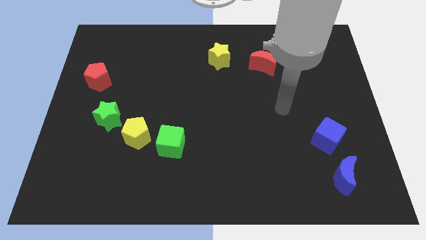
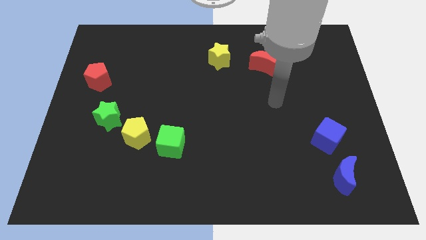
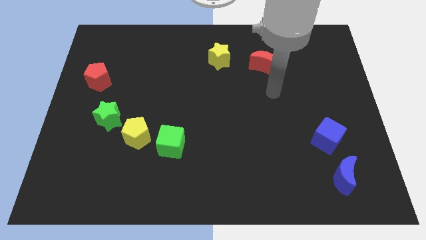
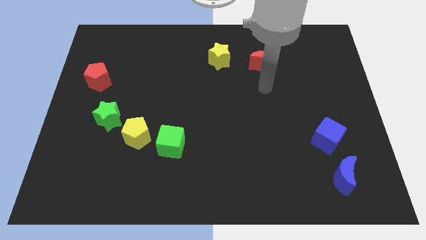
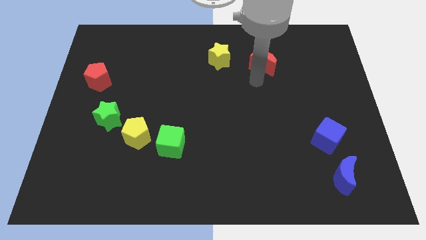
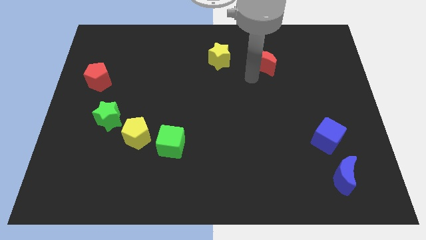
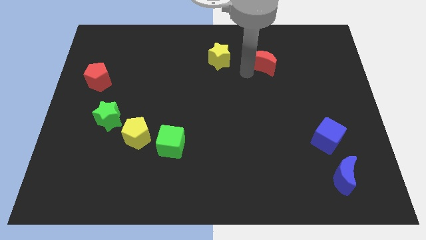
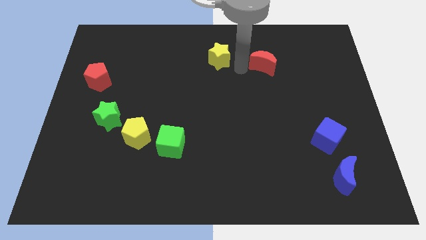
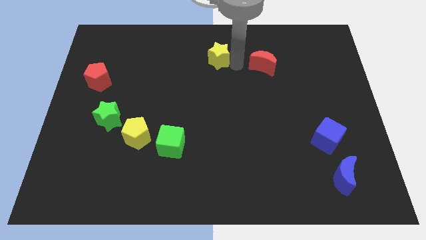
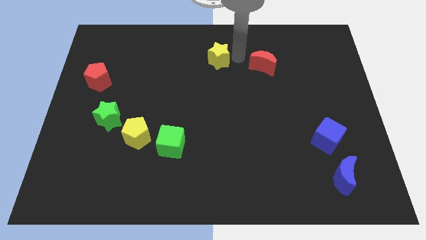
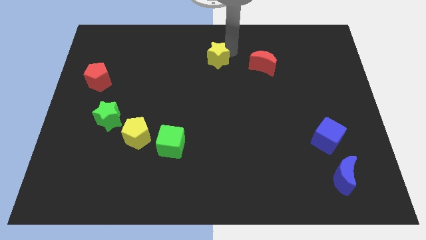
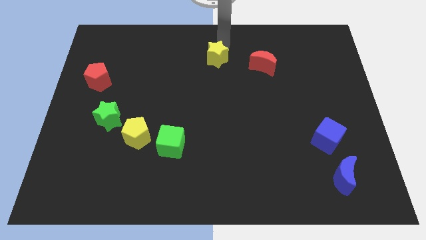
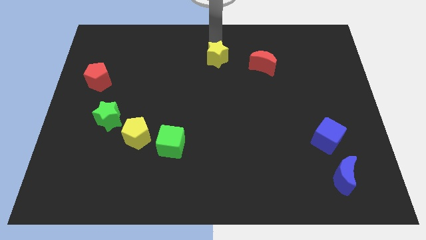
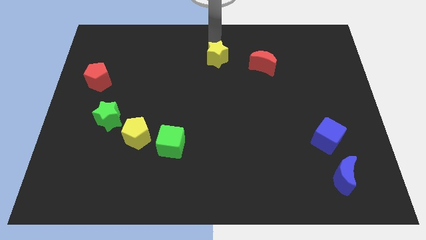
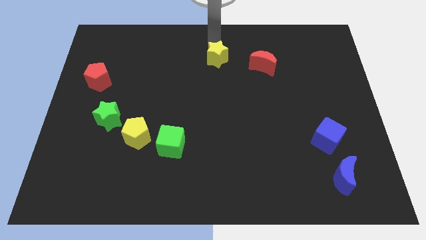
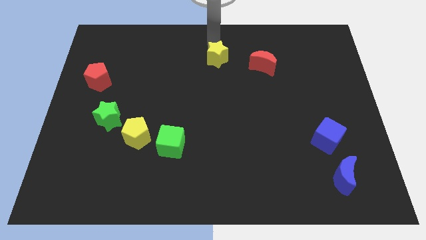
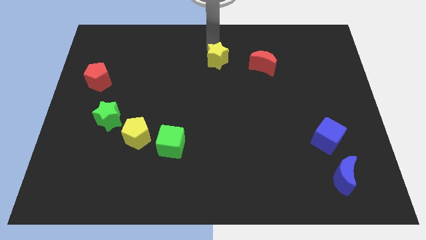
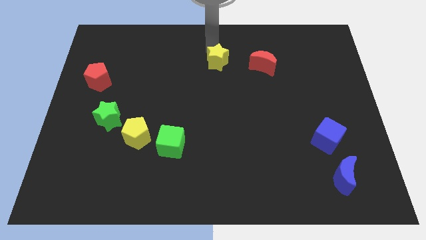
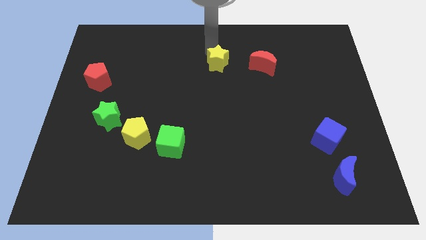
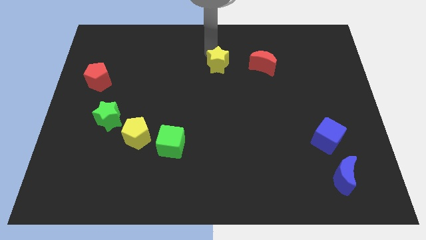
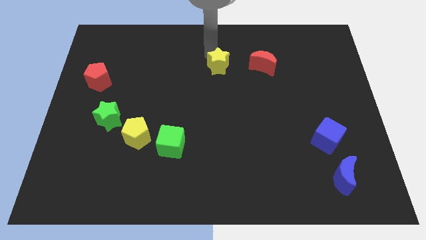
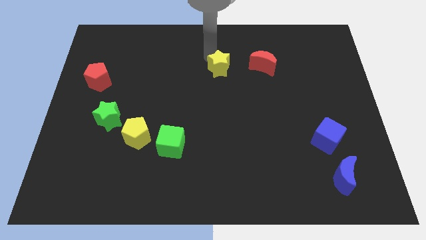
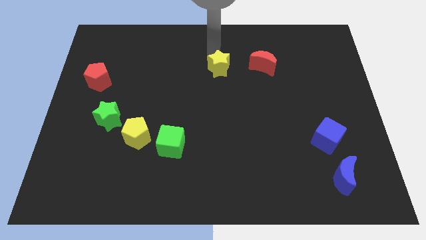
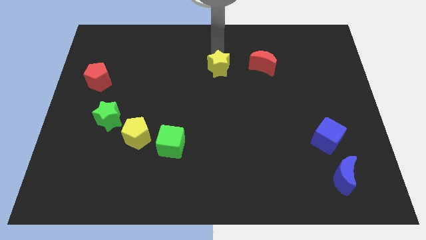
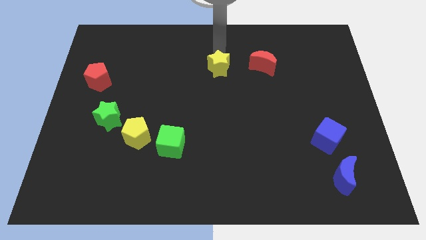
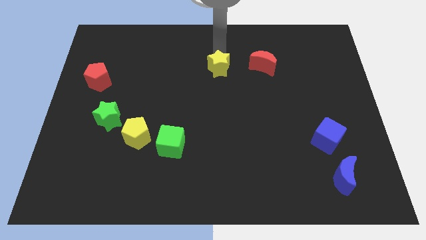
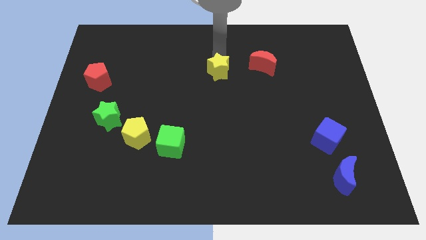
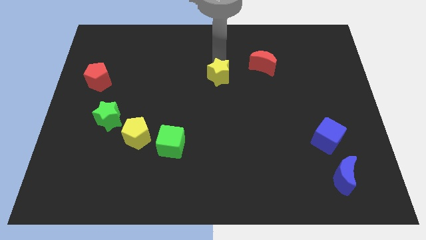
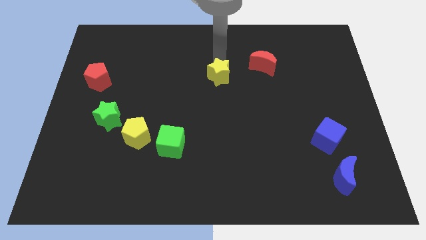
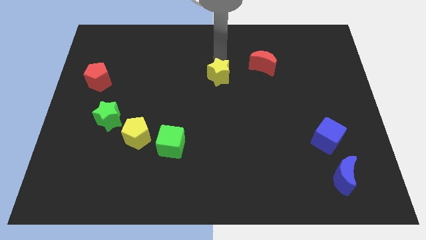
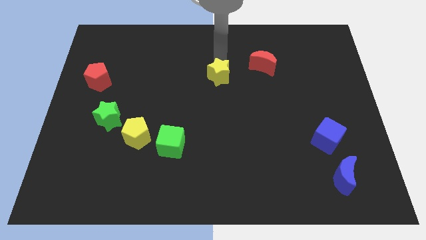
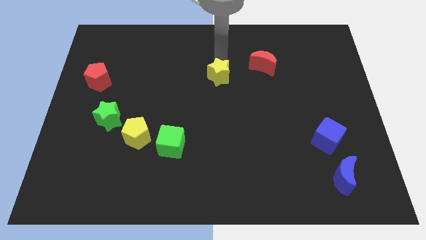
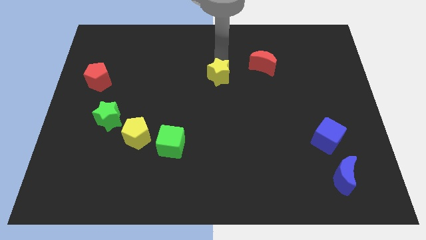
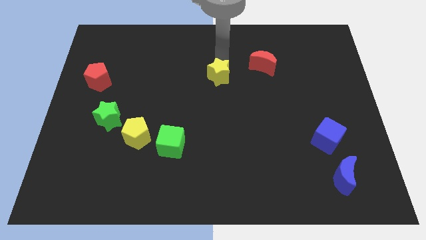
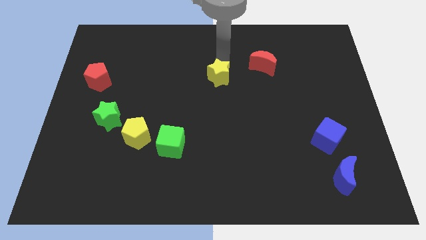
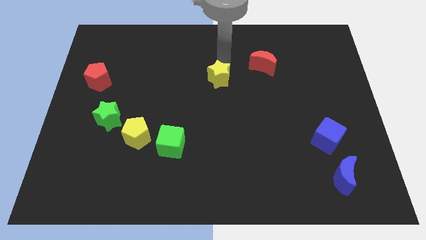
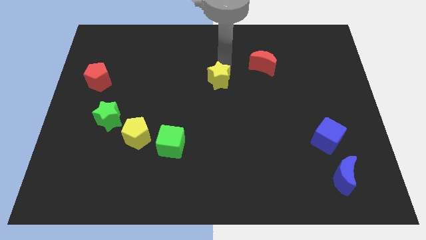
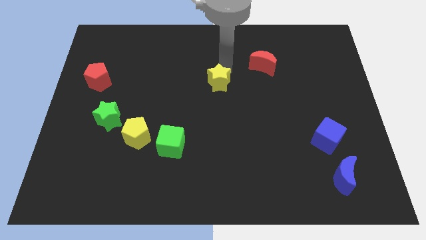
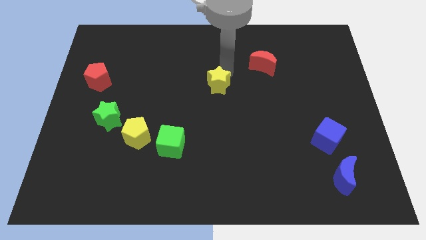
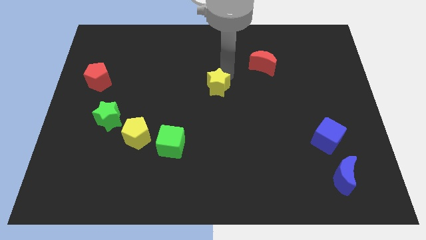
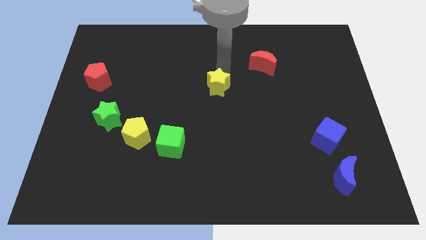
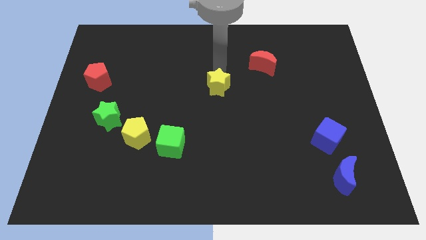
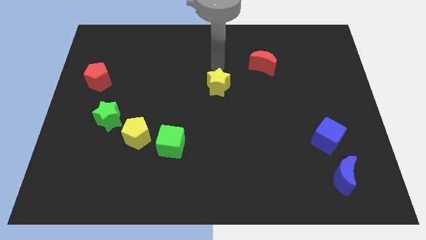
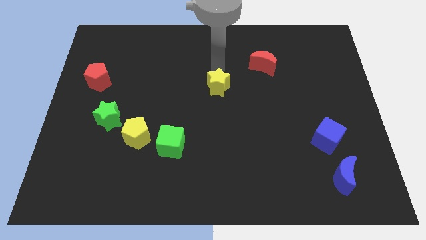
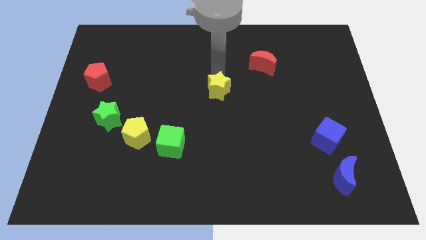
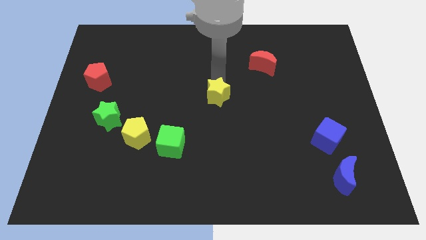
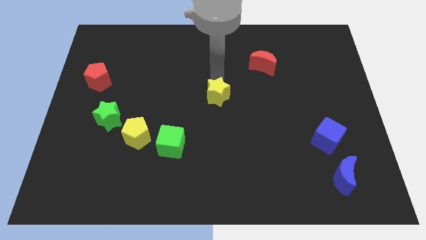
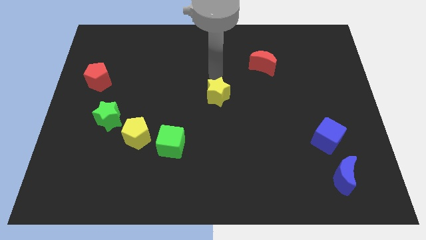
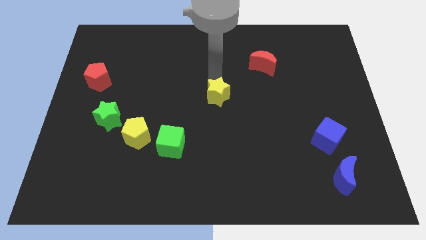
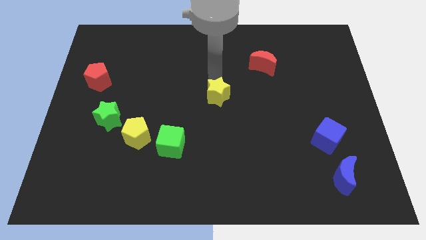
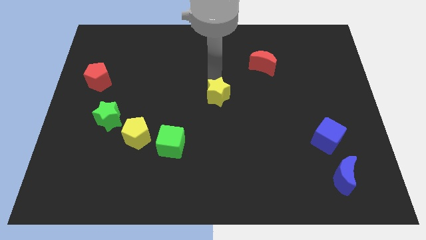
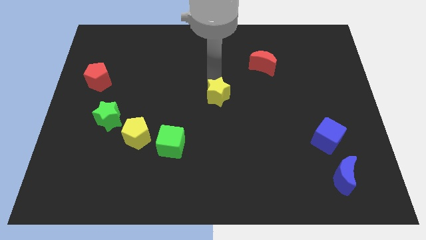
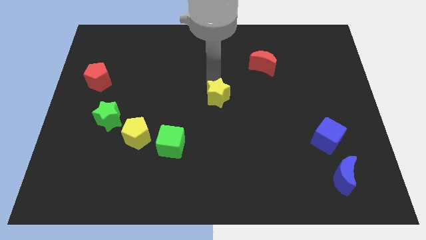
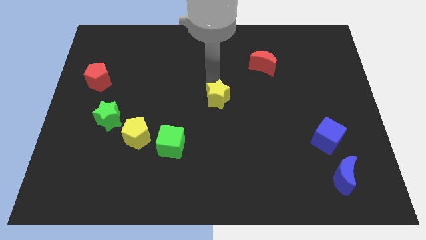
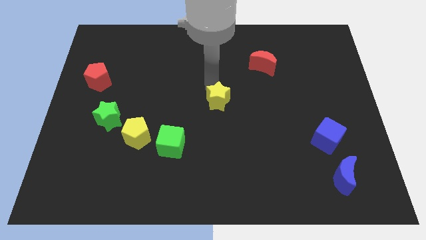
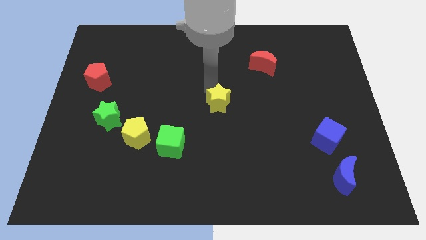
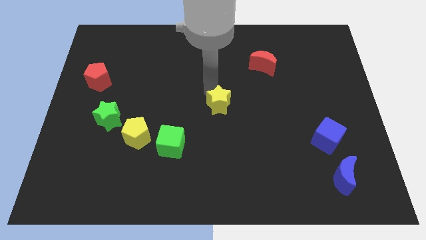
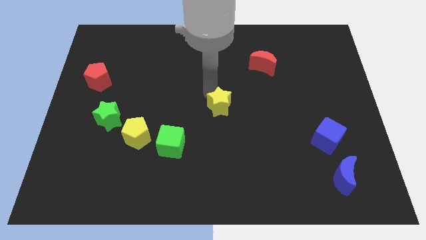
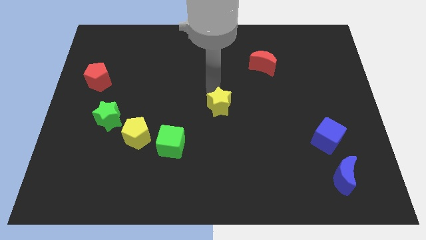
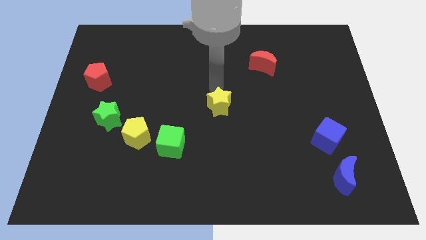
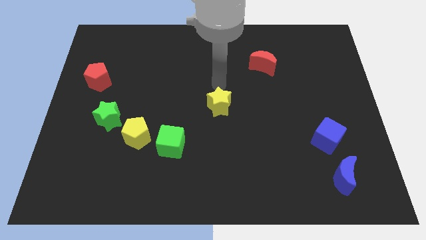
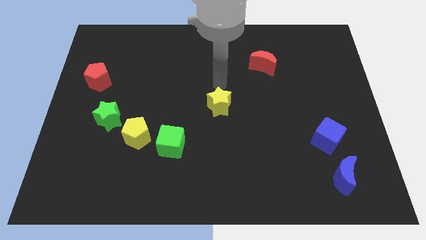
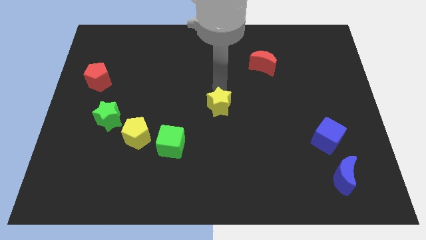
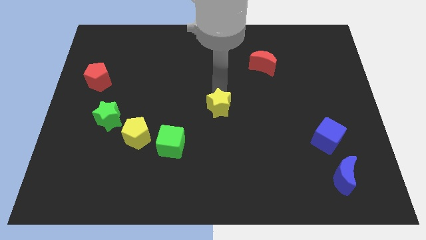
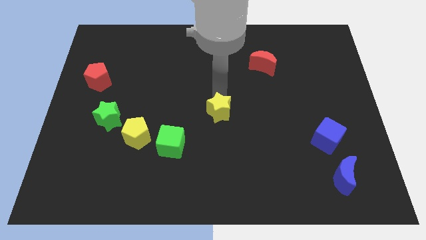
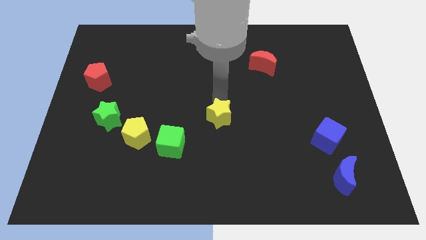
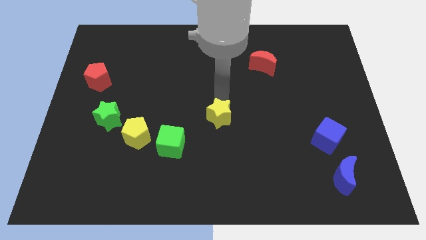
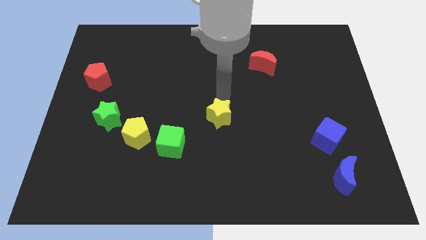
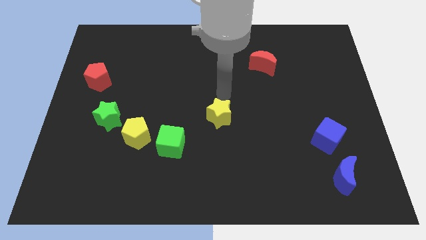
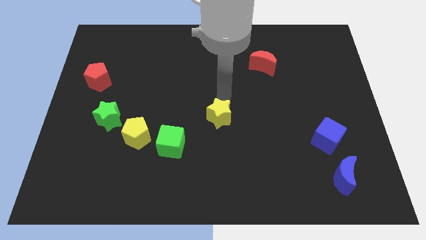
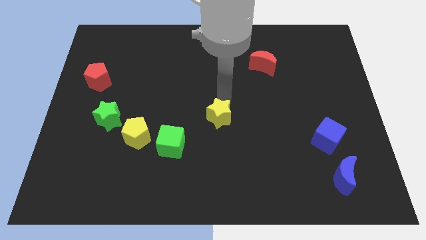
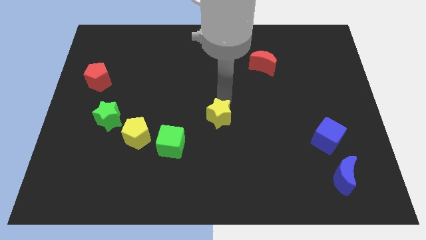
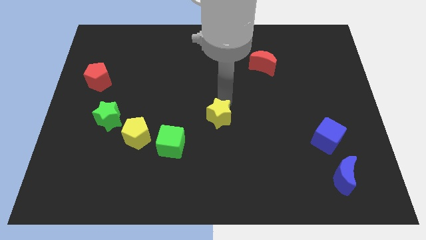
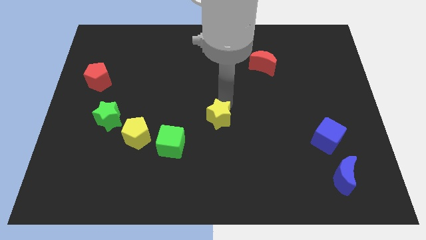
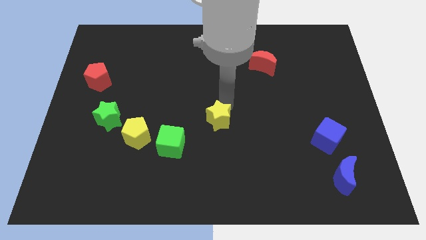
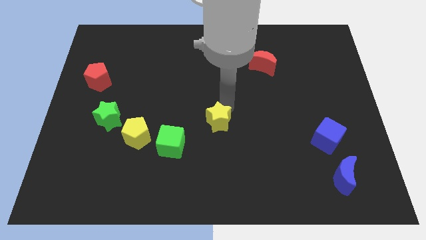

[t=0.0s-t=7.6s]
move the yellow star downwards

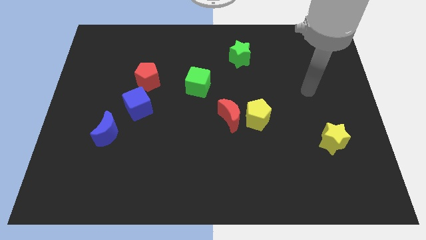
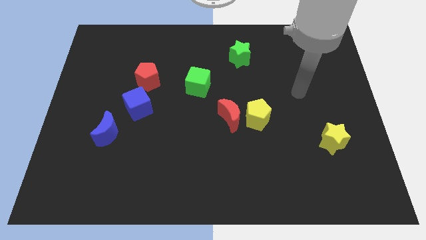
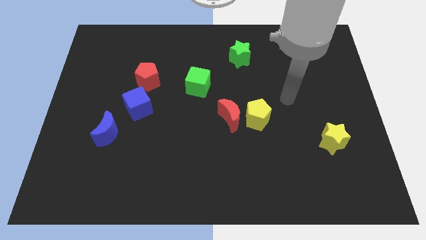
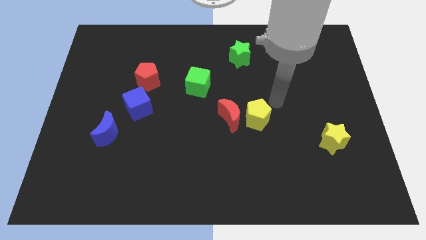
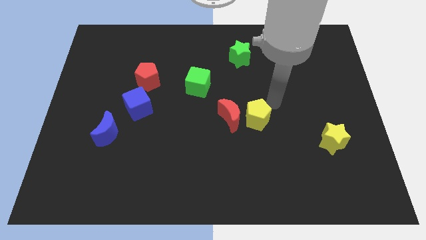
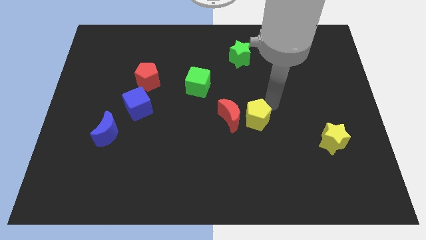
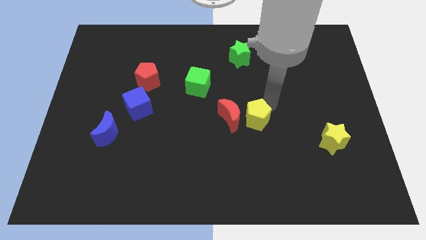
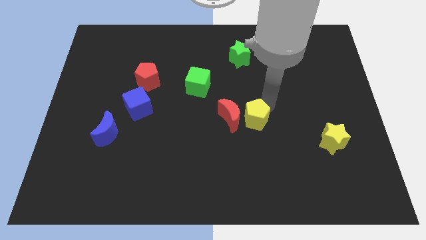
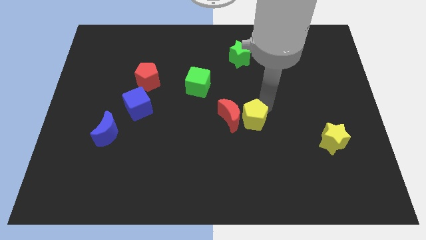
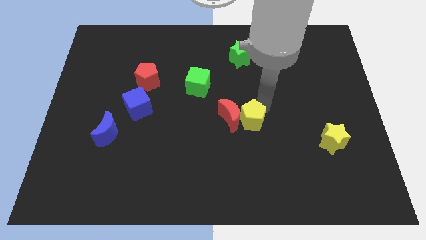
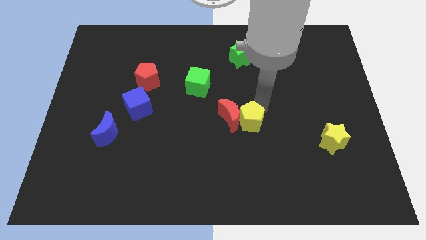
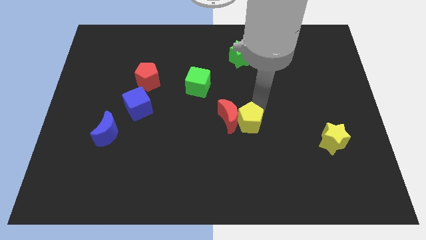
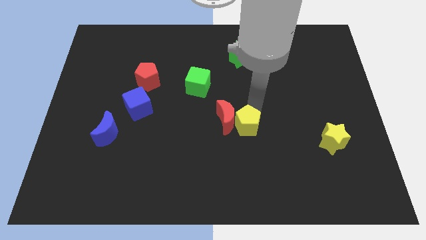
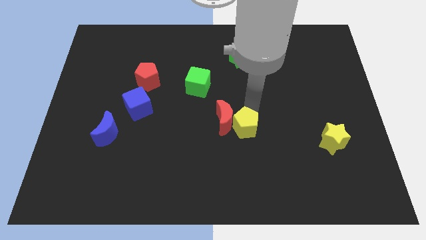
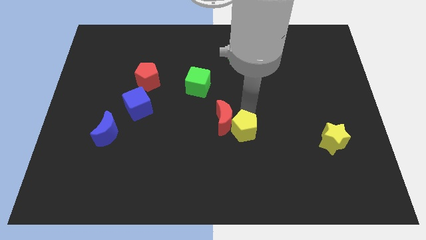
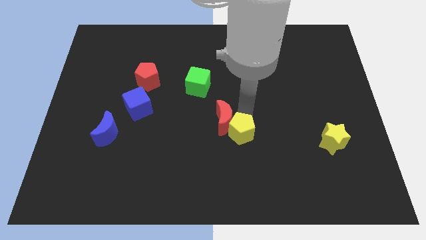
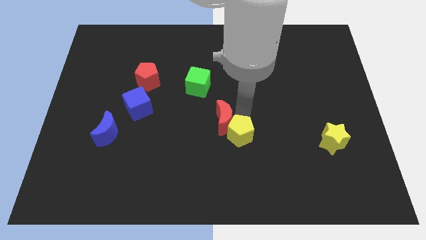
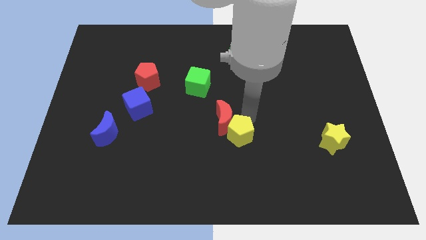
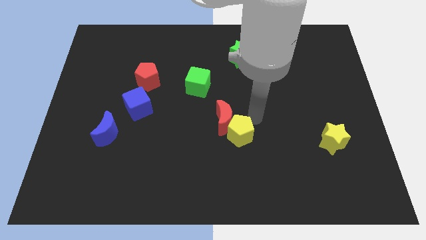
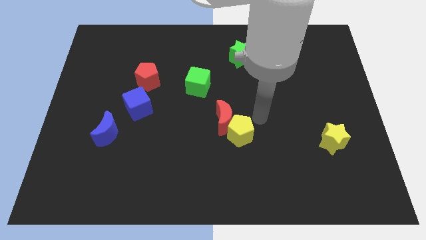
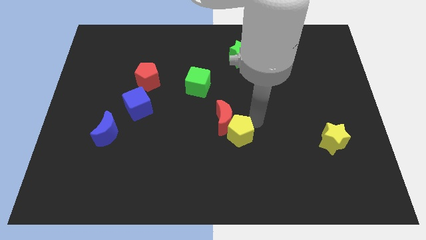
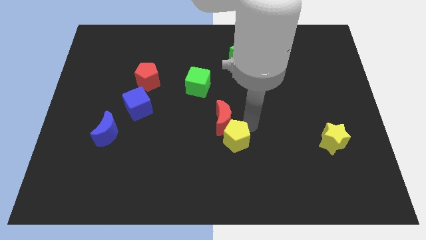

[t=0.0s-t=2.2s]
slightly slide the yellow pentagon downwards and then to the left
